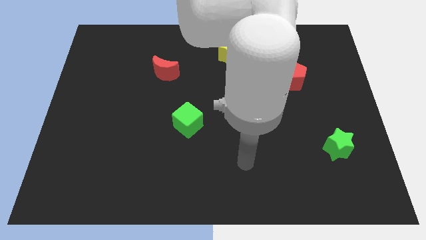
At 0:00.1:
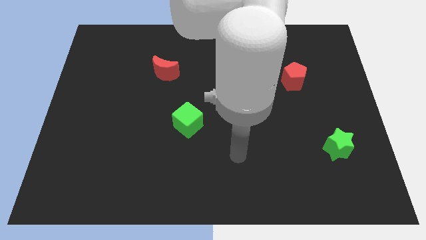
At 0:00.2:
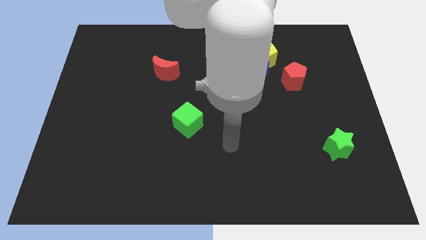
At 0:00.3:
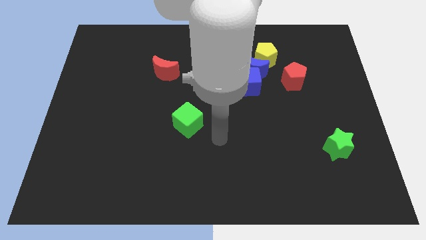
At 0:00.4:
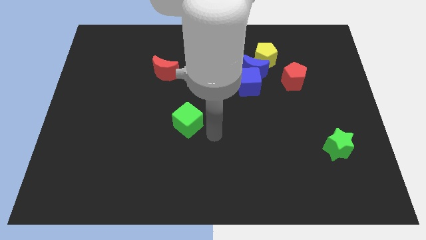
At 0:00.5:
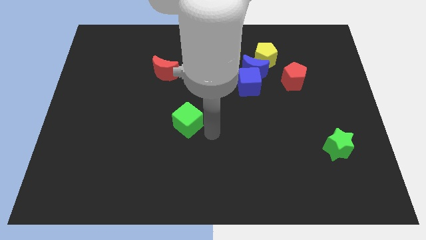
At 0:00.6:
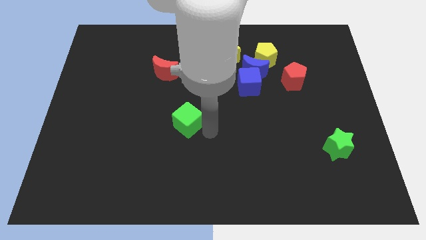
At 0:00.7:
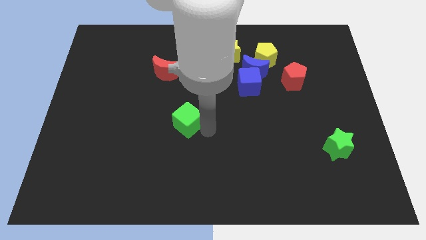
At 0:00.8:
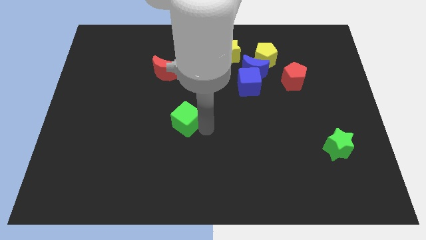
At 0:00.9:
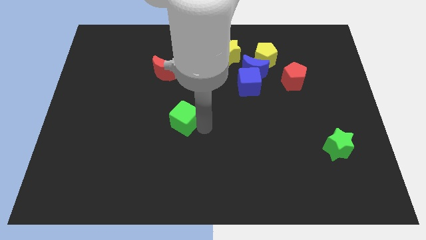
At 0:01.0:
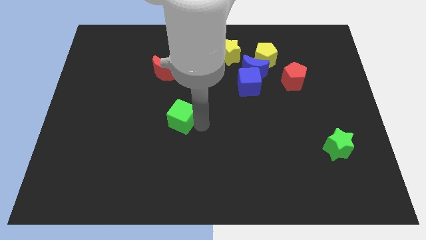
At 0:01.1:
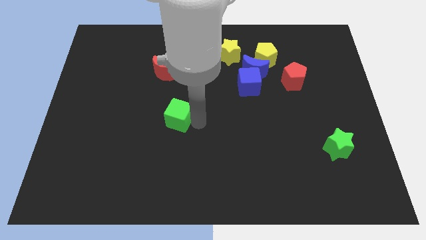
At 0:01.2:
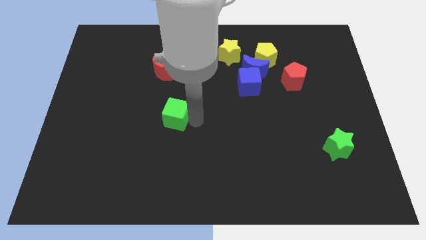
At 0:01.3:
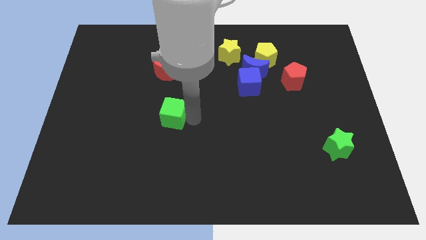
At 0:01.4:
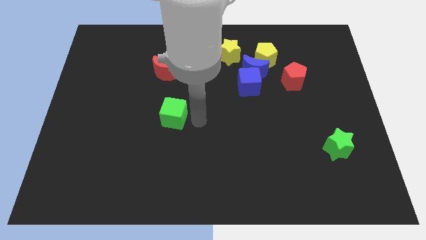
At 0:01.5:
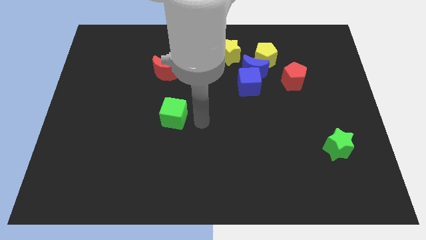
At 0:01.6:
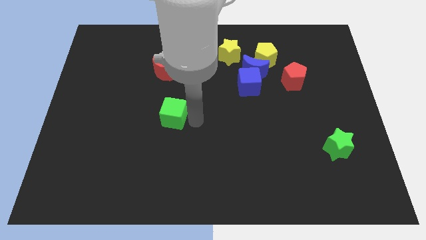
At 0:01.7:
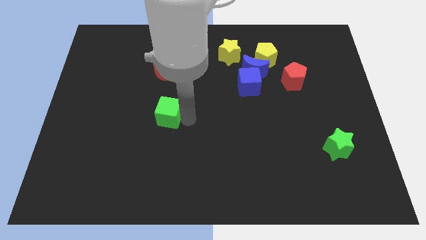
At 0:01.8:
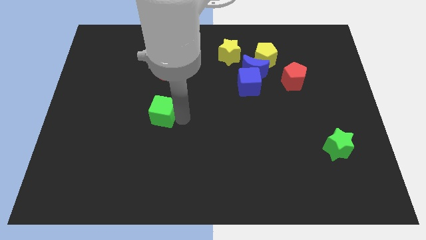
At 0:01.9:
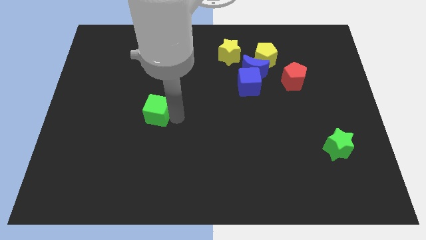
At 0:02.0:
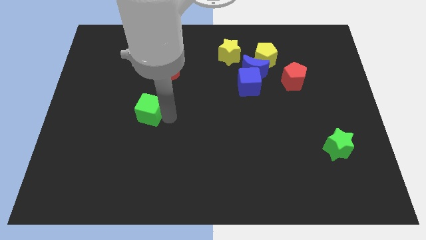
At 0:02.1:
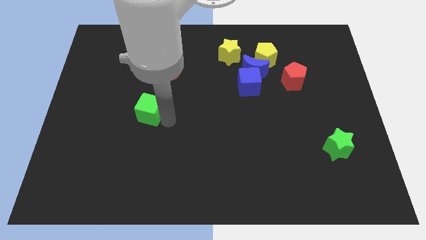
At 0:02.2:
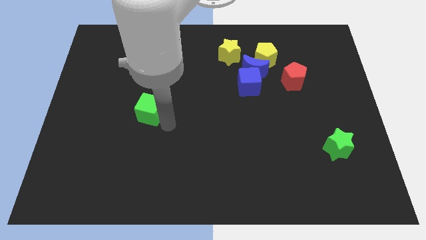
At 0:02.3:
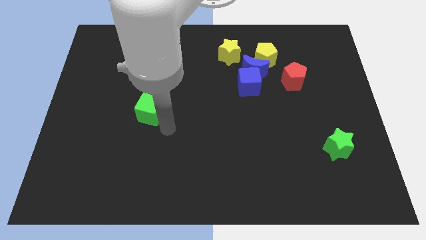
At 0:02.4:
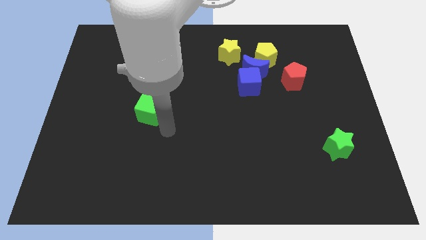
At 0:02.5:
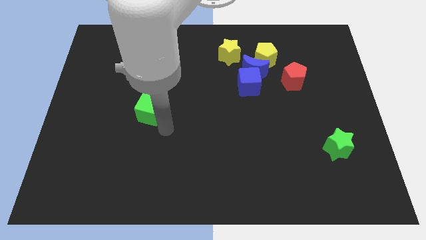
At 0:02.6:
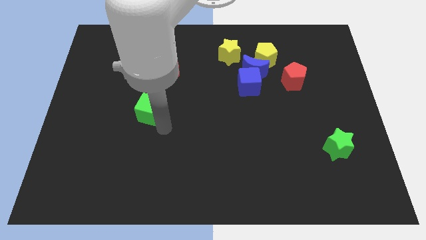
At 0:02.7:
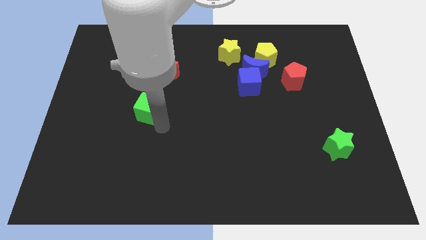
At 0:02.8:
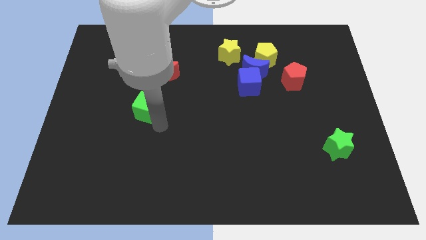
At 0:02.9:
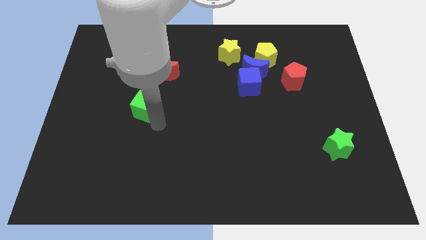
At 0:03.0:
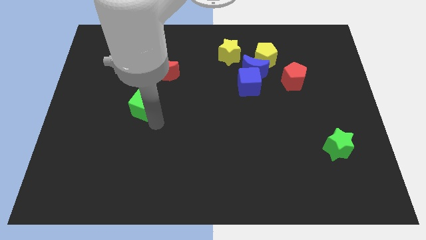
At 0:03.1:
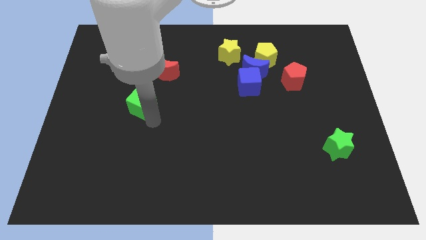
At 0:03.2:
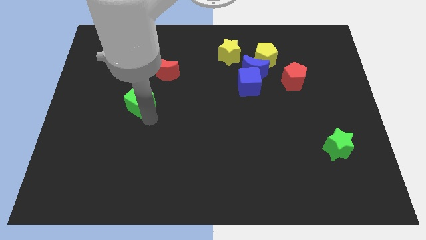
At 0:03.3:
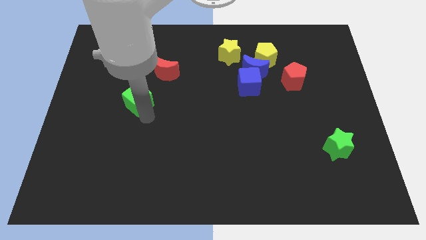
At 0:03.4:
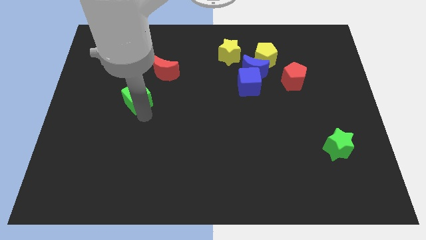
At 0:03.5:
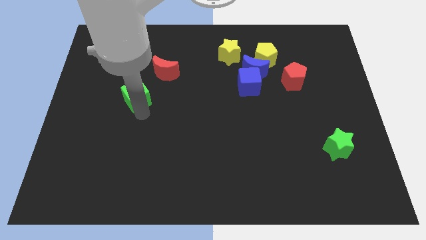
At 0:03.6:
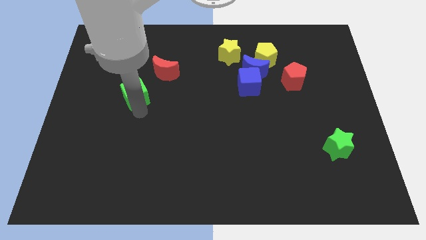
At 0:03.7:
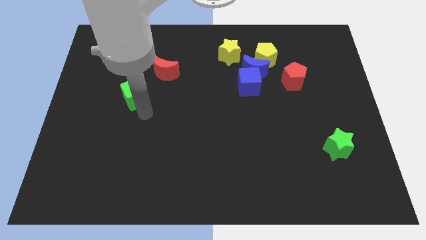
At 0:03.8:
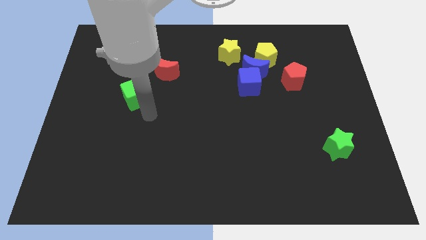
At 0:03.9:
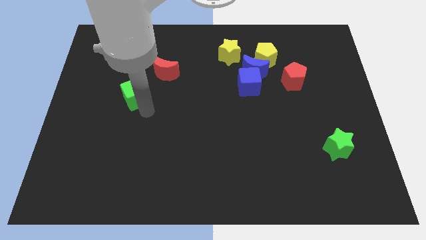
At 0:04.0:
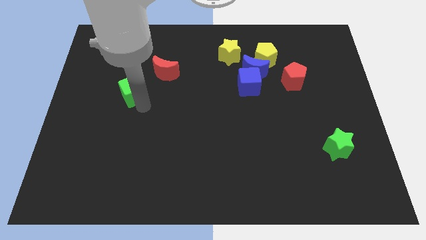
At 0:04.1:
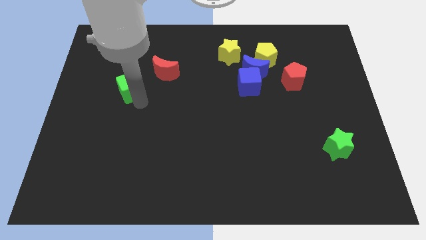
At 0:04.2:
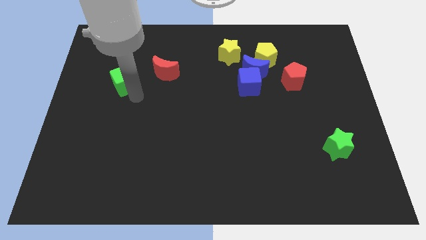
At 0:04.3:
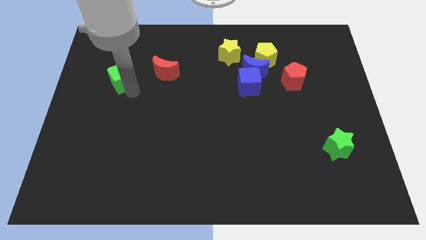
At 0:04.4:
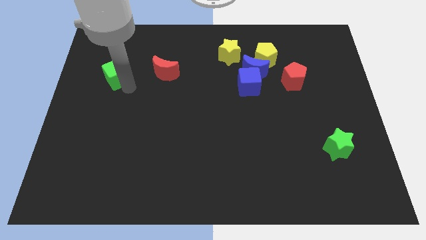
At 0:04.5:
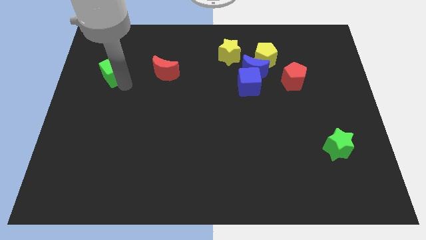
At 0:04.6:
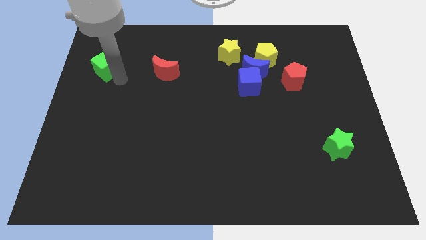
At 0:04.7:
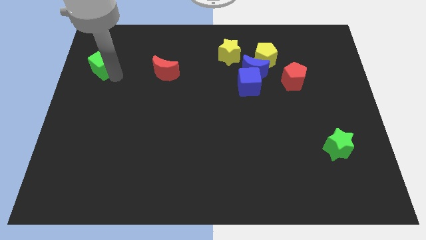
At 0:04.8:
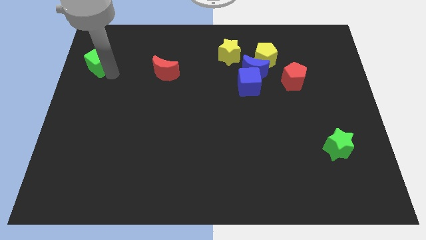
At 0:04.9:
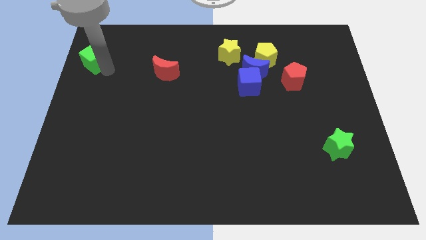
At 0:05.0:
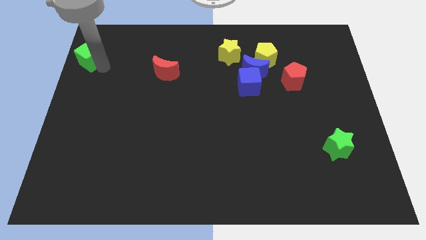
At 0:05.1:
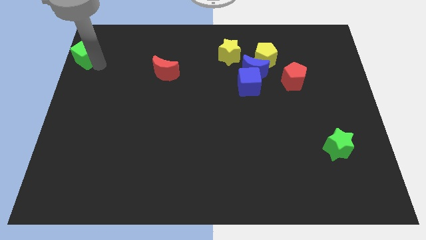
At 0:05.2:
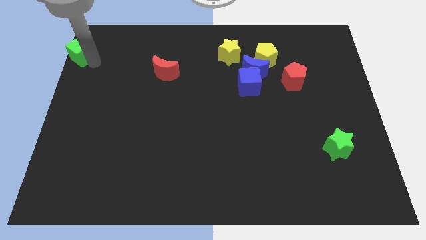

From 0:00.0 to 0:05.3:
put the green cube to the top left
